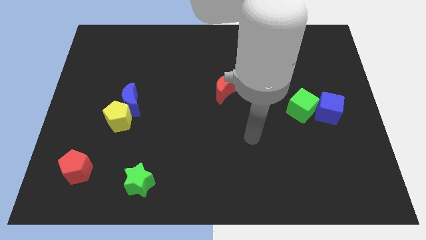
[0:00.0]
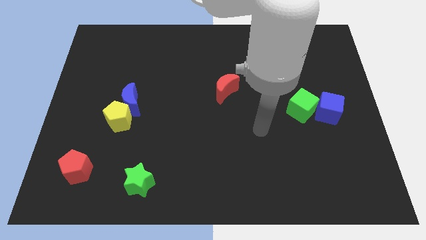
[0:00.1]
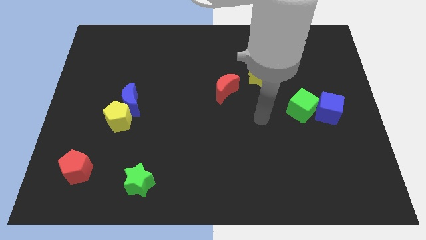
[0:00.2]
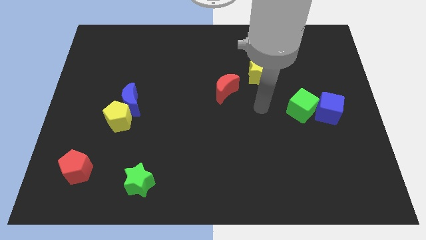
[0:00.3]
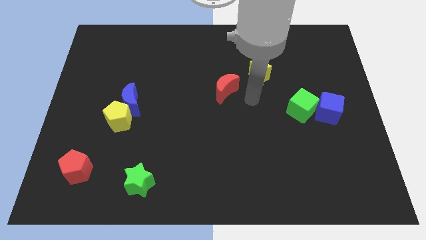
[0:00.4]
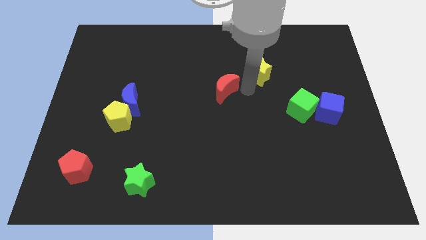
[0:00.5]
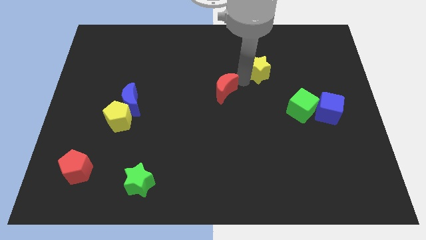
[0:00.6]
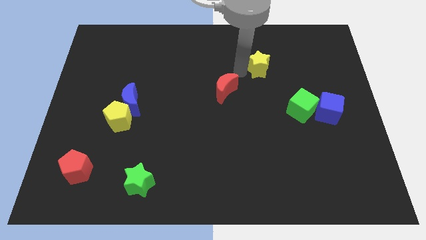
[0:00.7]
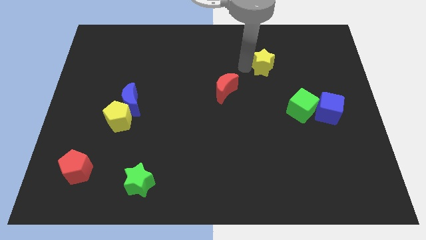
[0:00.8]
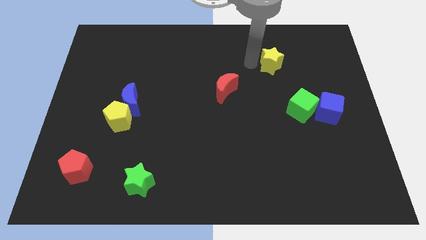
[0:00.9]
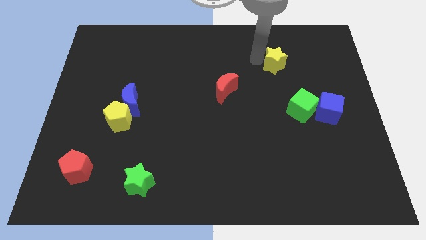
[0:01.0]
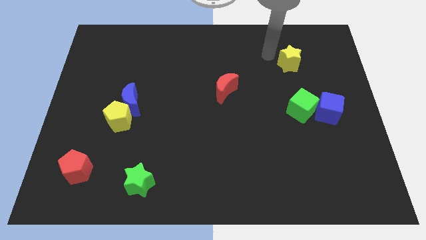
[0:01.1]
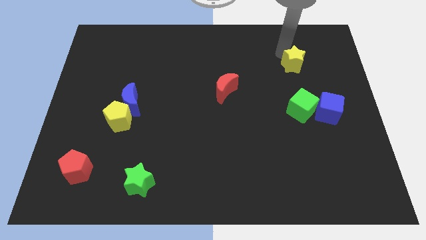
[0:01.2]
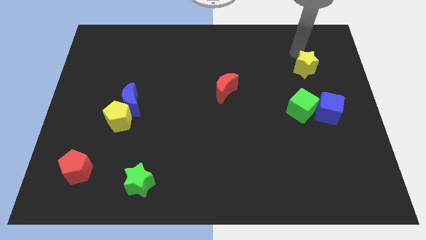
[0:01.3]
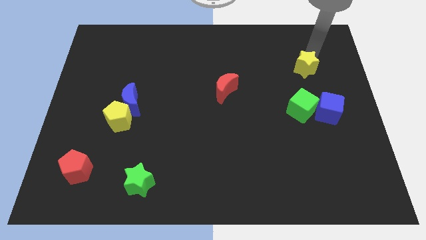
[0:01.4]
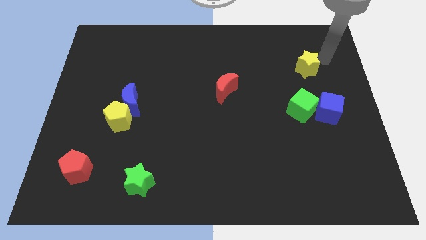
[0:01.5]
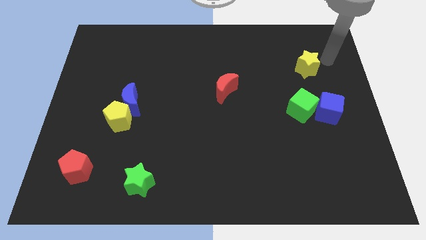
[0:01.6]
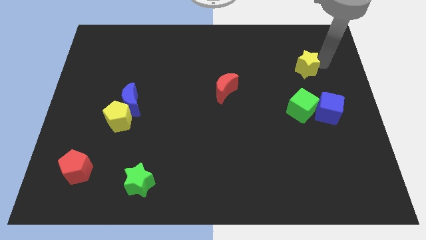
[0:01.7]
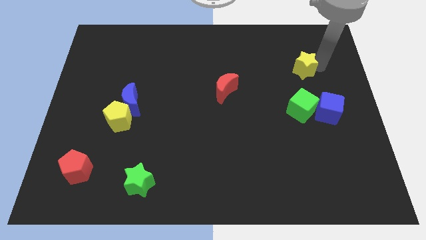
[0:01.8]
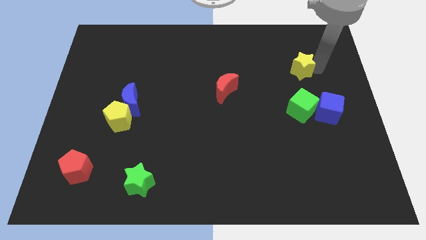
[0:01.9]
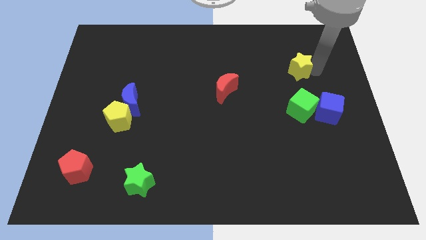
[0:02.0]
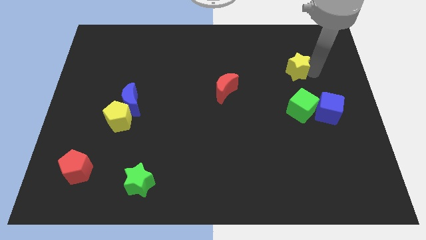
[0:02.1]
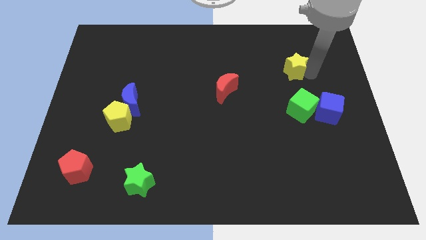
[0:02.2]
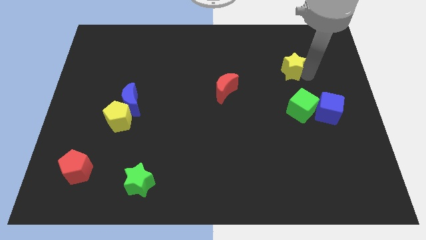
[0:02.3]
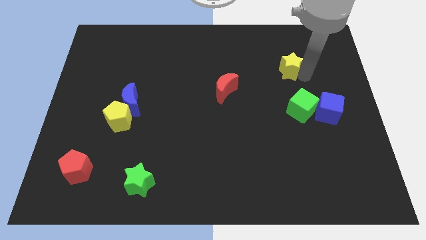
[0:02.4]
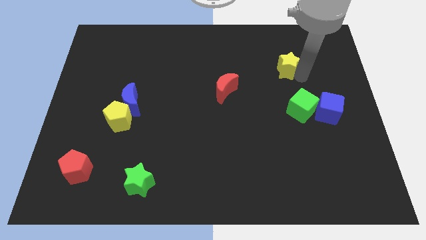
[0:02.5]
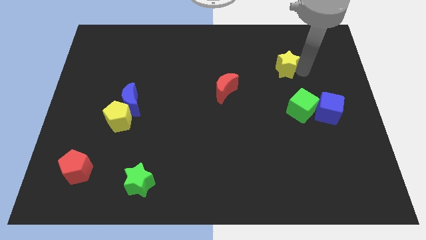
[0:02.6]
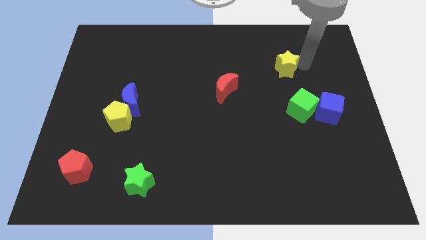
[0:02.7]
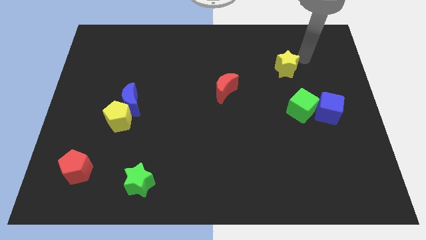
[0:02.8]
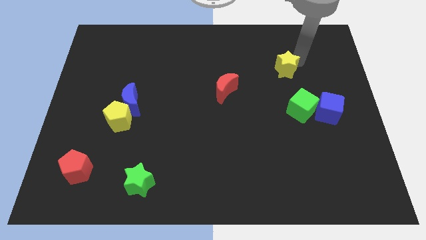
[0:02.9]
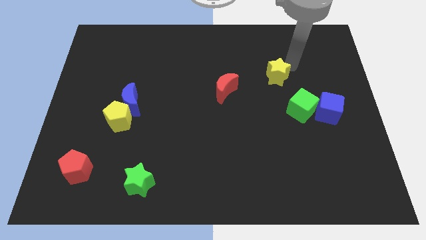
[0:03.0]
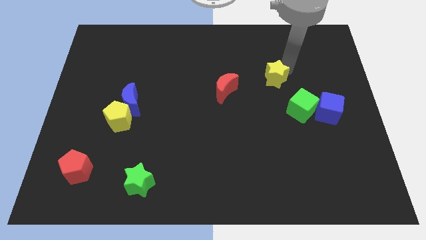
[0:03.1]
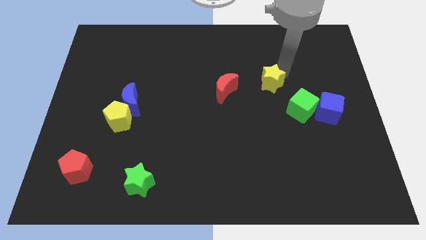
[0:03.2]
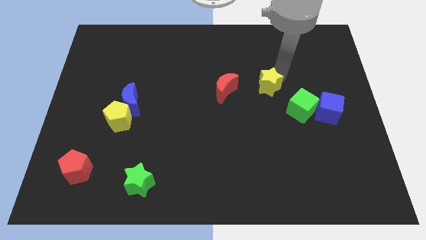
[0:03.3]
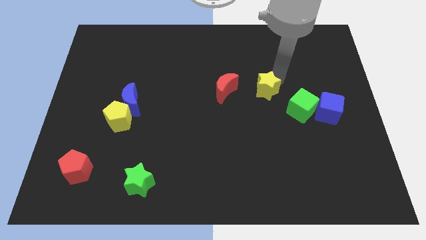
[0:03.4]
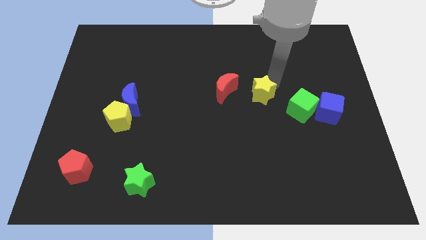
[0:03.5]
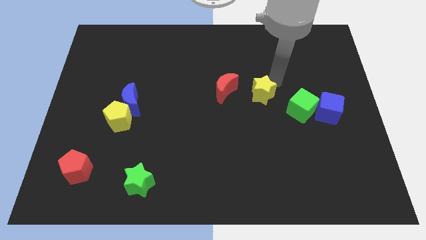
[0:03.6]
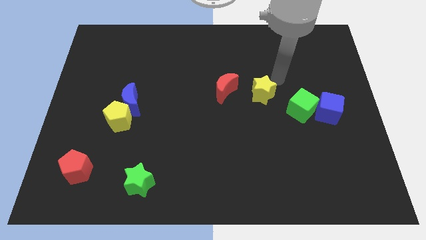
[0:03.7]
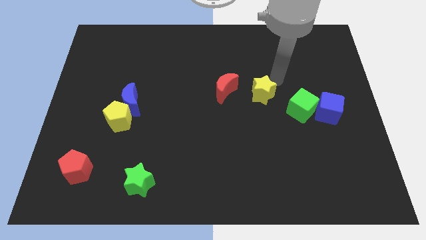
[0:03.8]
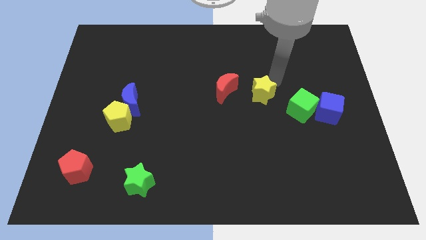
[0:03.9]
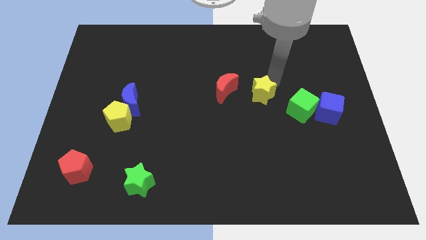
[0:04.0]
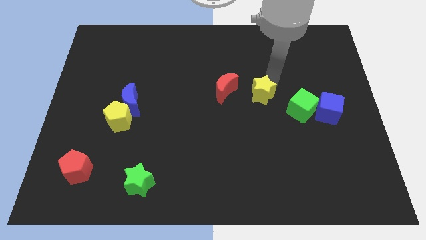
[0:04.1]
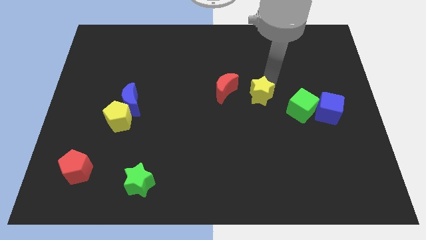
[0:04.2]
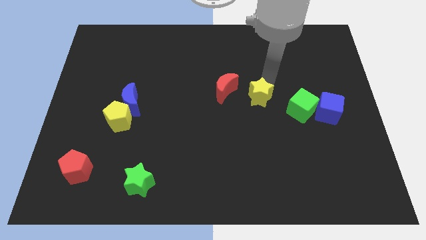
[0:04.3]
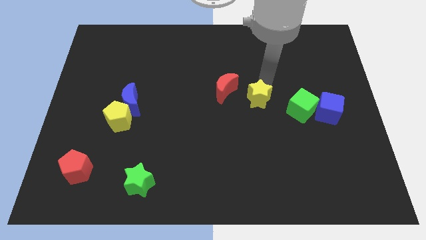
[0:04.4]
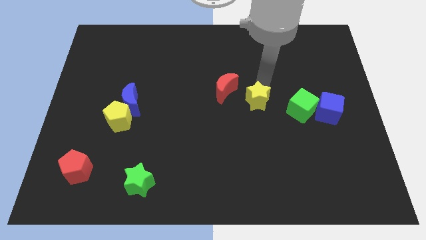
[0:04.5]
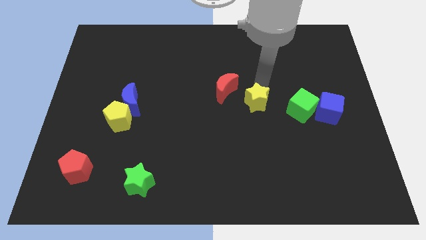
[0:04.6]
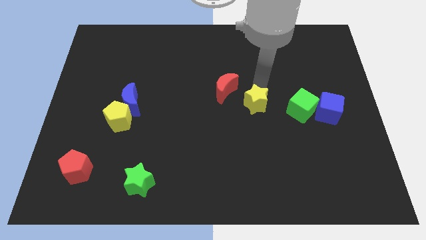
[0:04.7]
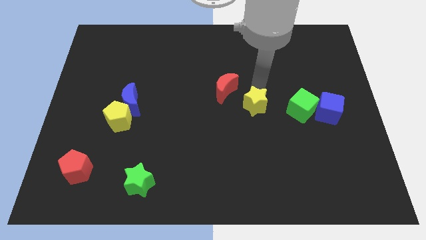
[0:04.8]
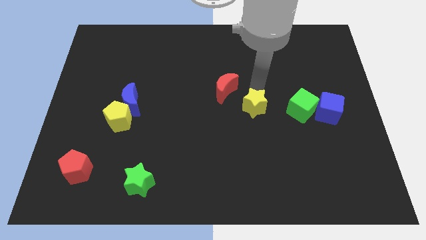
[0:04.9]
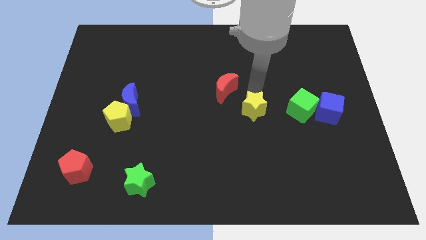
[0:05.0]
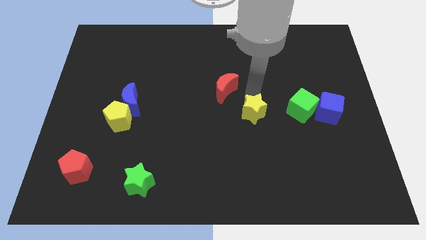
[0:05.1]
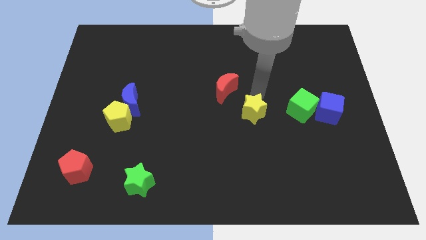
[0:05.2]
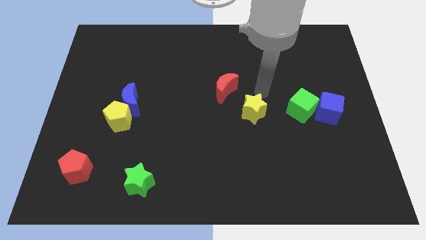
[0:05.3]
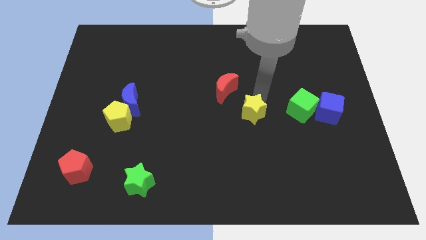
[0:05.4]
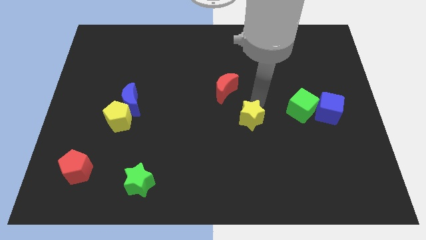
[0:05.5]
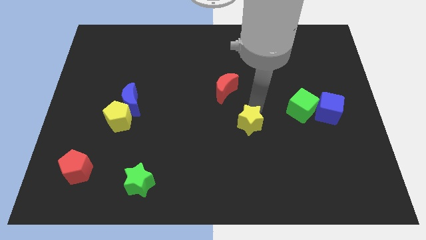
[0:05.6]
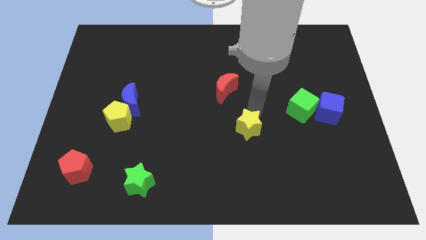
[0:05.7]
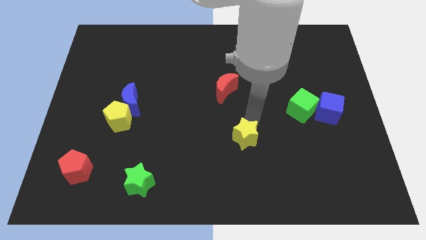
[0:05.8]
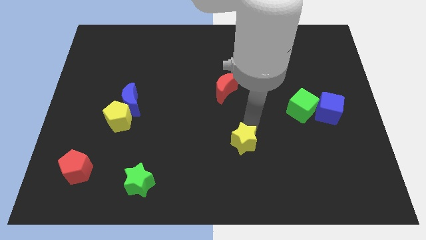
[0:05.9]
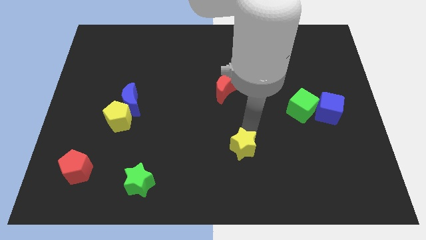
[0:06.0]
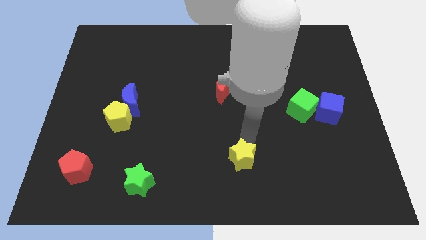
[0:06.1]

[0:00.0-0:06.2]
slide the yellow star to the bottom side

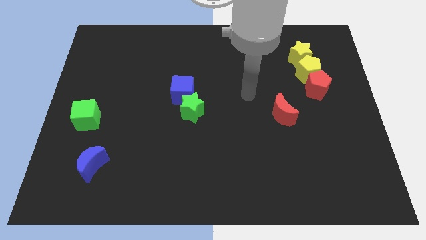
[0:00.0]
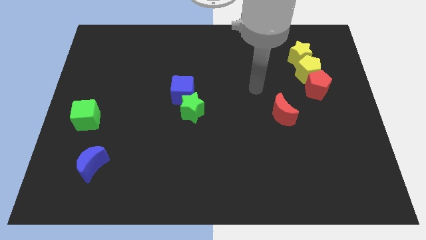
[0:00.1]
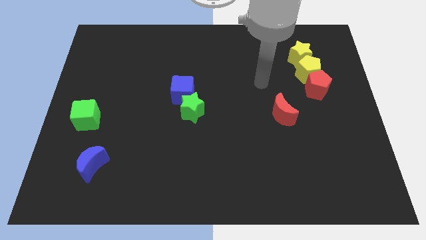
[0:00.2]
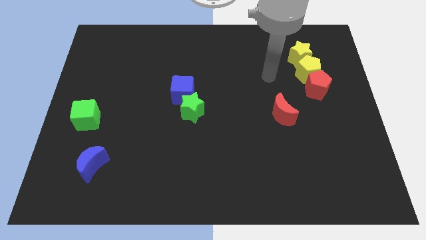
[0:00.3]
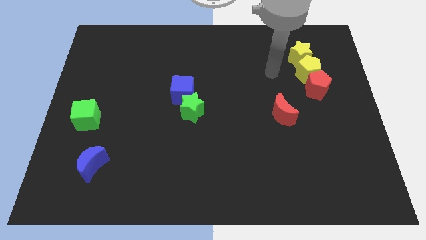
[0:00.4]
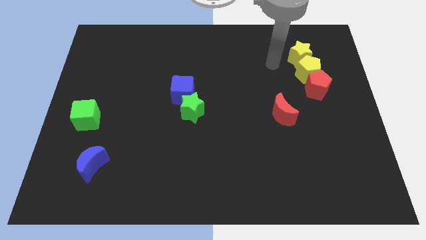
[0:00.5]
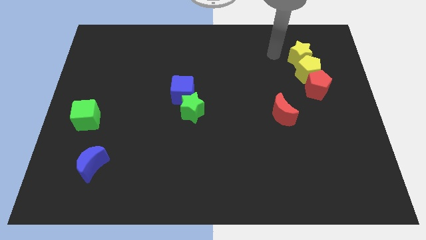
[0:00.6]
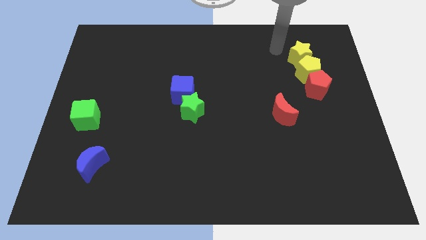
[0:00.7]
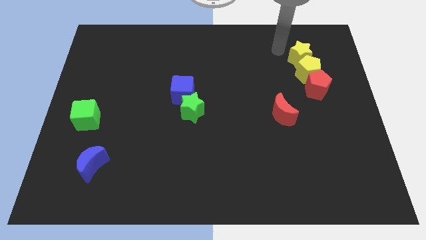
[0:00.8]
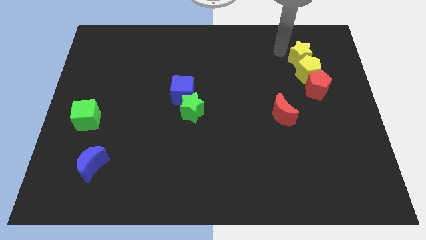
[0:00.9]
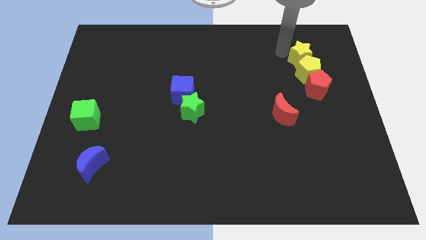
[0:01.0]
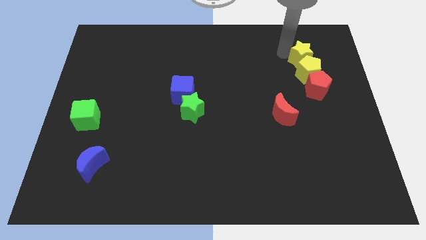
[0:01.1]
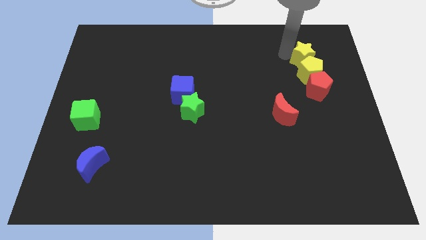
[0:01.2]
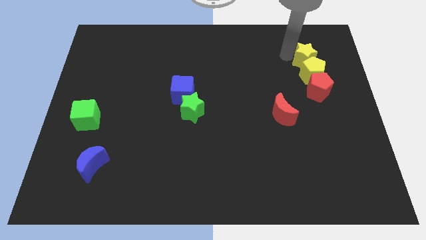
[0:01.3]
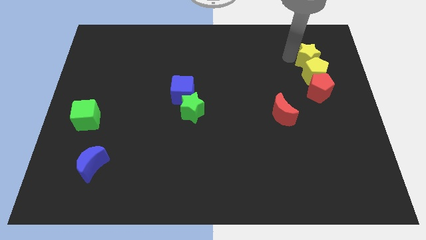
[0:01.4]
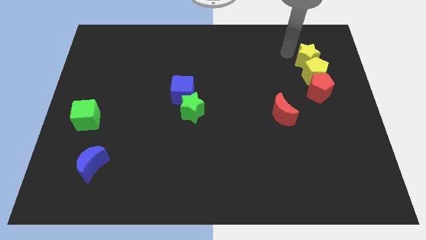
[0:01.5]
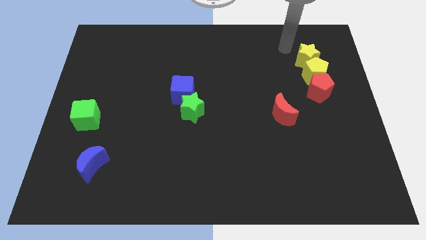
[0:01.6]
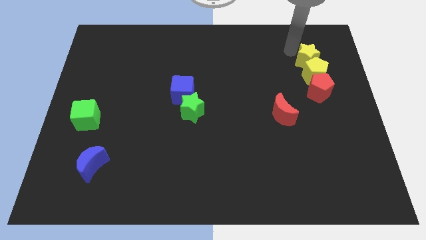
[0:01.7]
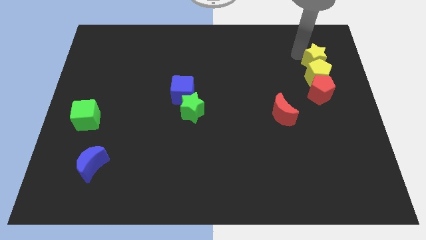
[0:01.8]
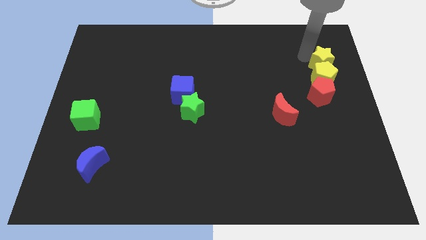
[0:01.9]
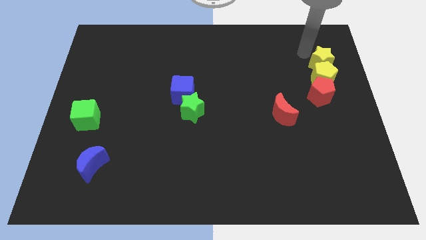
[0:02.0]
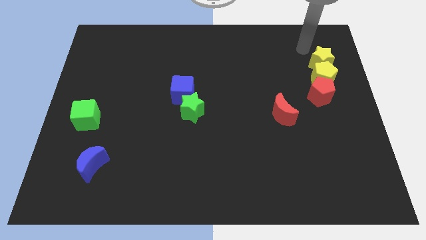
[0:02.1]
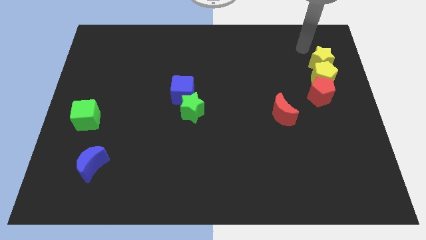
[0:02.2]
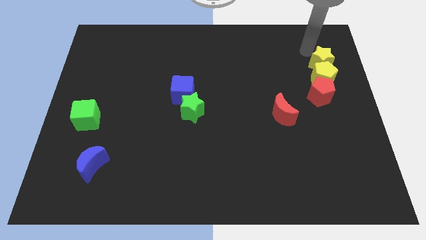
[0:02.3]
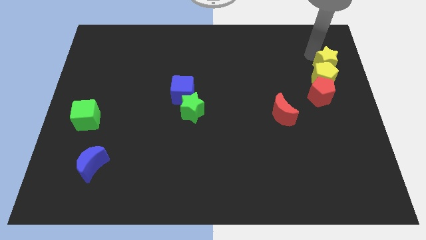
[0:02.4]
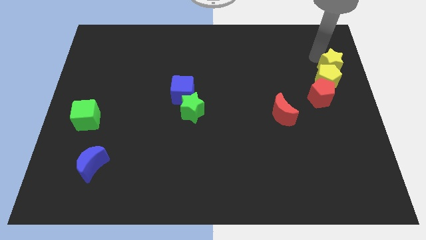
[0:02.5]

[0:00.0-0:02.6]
put the yellow star to the right side
